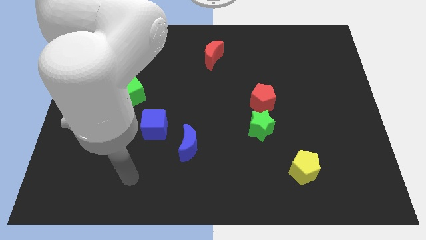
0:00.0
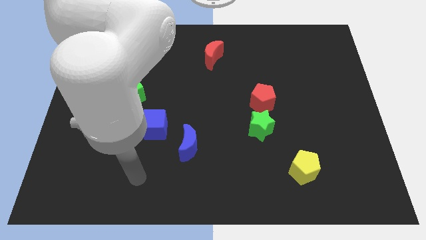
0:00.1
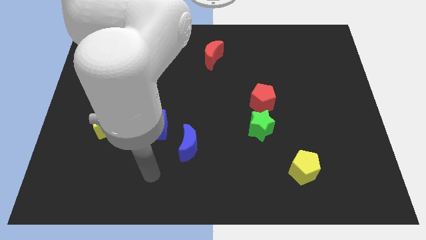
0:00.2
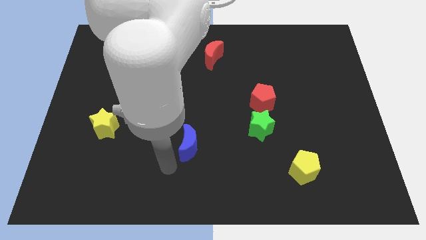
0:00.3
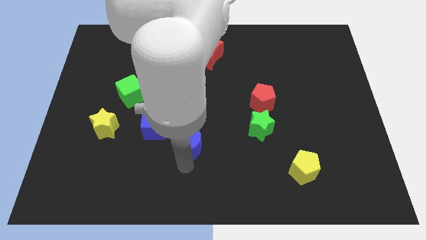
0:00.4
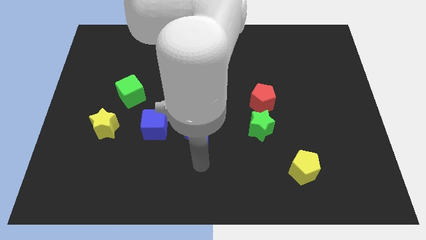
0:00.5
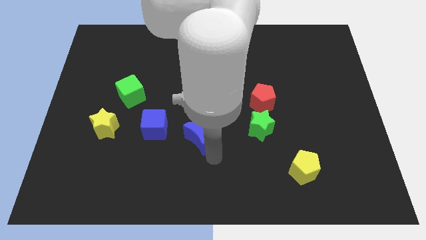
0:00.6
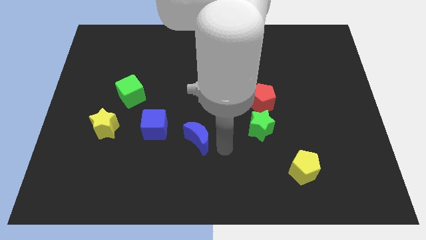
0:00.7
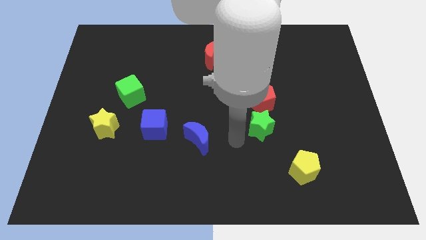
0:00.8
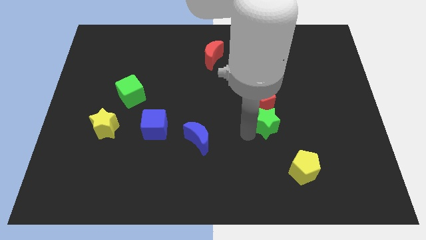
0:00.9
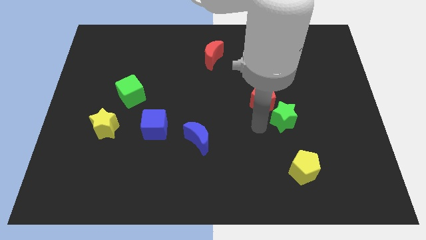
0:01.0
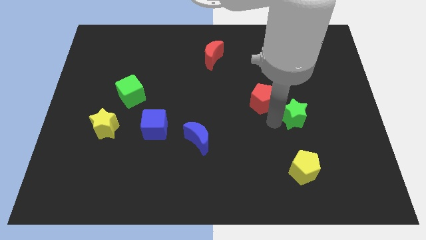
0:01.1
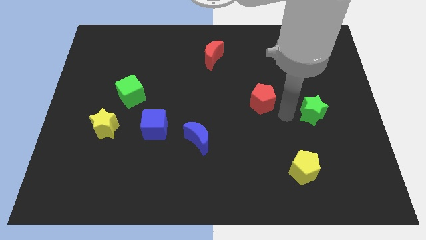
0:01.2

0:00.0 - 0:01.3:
pull the red pentagon apart from the green star

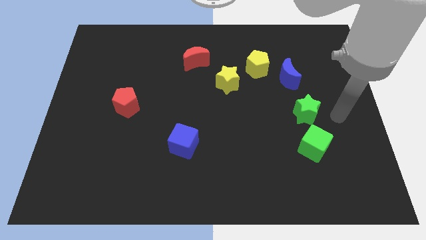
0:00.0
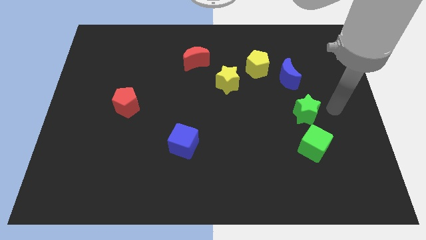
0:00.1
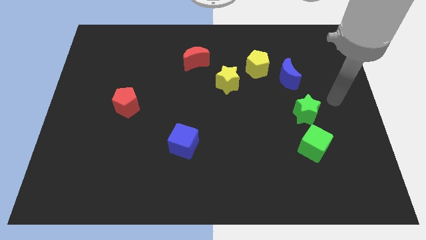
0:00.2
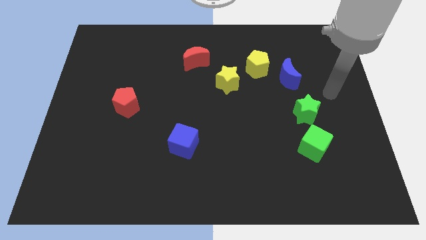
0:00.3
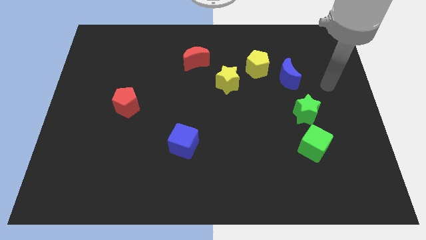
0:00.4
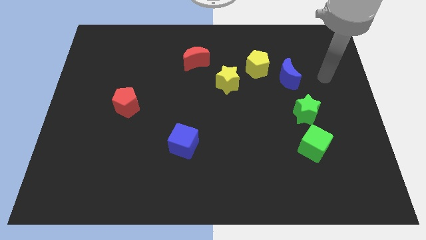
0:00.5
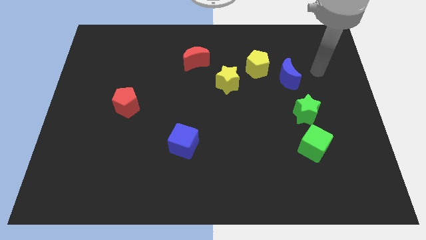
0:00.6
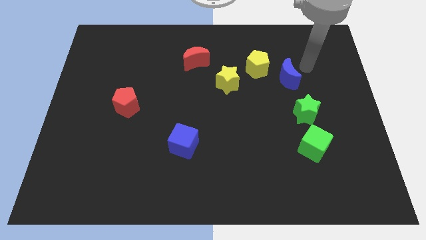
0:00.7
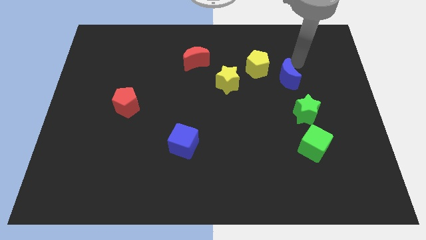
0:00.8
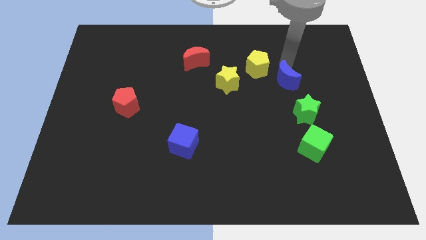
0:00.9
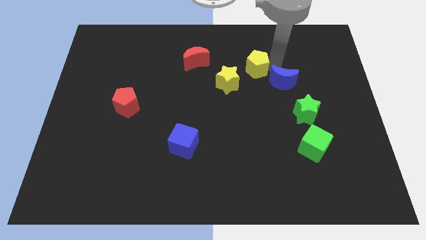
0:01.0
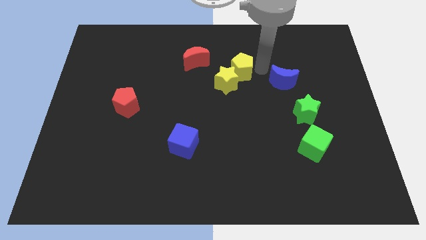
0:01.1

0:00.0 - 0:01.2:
move the blue moon away from the yellow pentagon

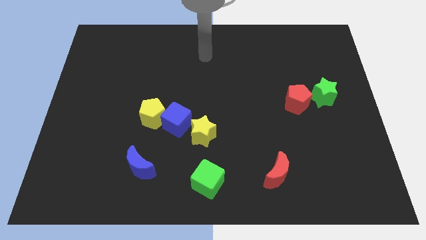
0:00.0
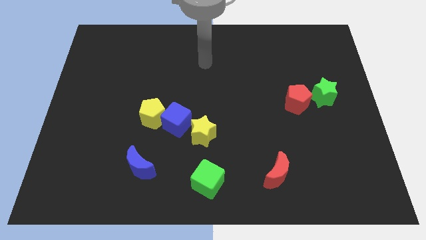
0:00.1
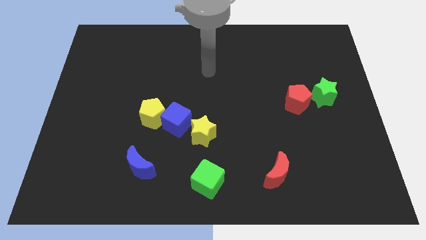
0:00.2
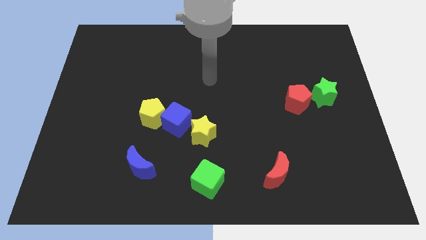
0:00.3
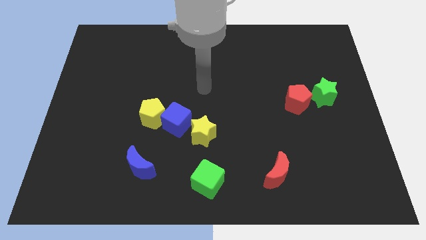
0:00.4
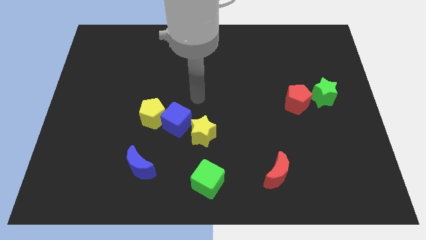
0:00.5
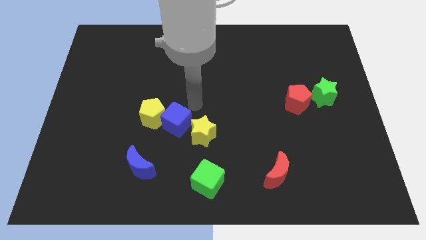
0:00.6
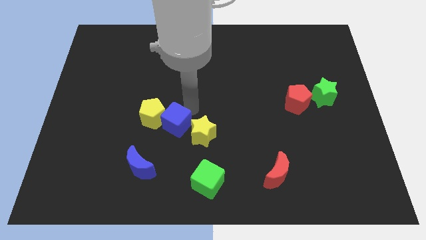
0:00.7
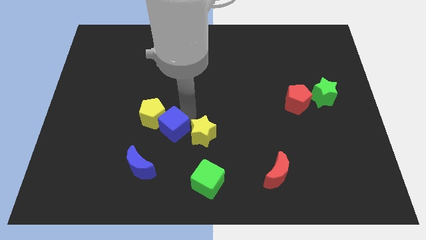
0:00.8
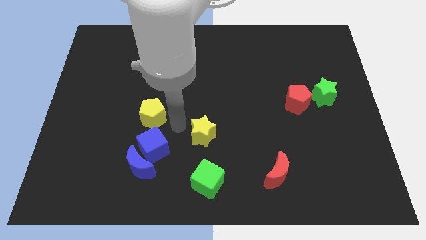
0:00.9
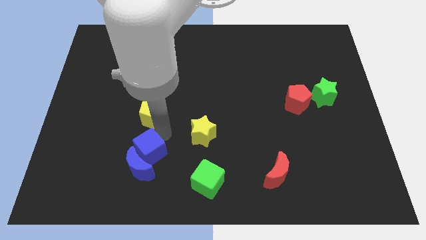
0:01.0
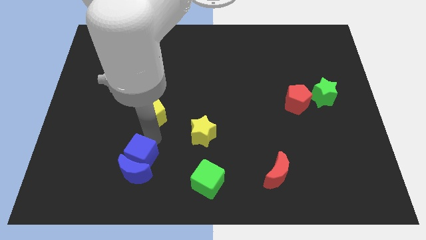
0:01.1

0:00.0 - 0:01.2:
pull the yellow pentagon apart from the blue cube

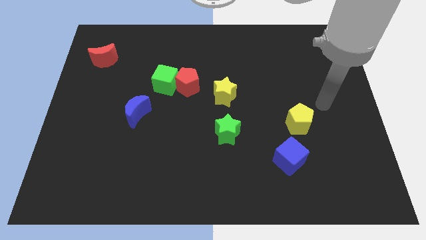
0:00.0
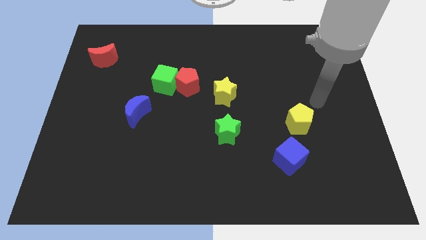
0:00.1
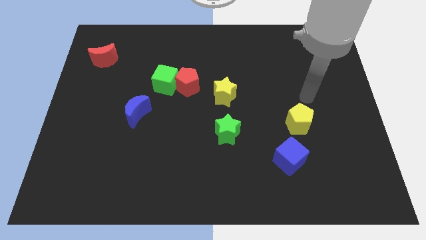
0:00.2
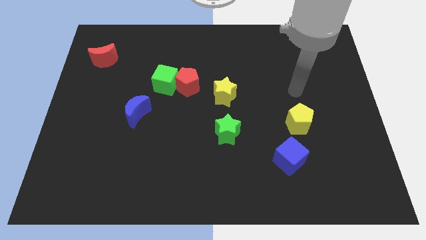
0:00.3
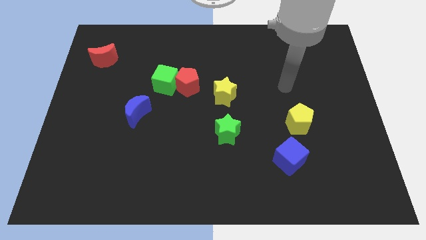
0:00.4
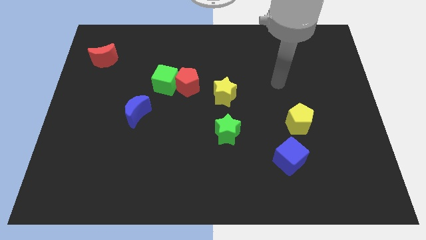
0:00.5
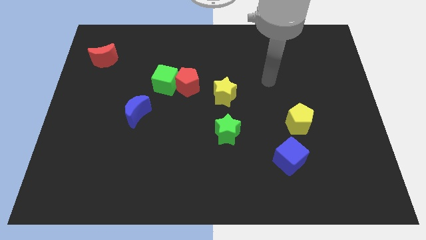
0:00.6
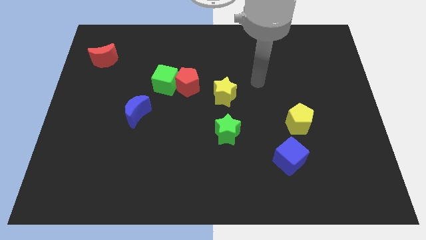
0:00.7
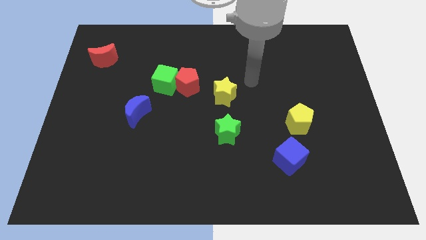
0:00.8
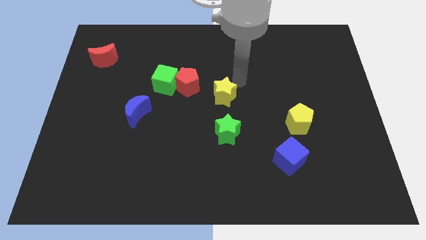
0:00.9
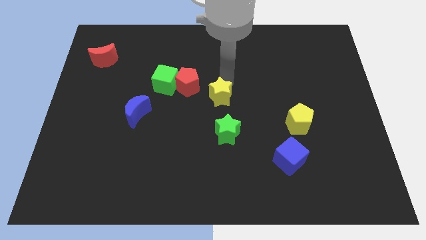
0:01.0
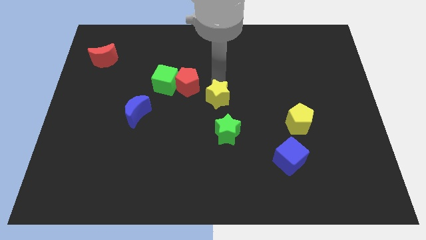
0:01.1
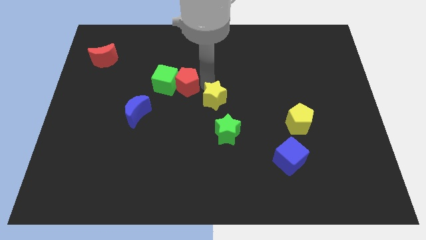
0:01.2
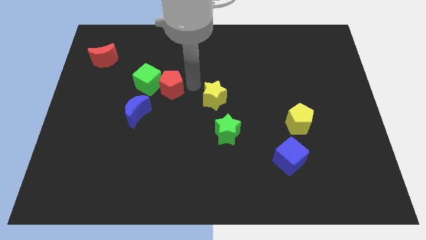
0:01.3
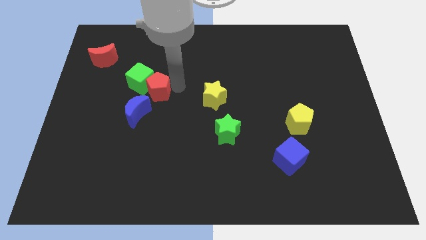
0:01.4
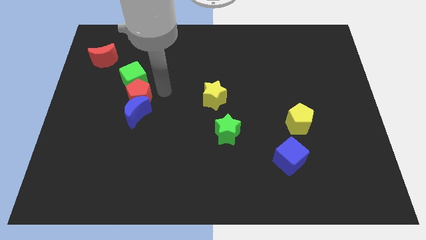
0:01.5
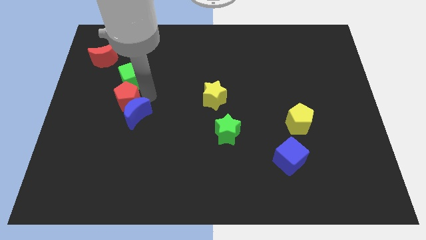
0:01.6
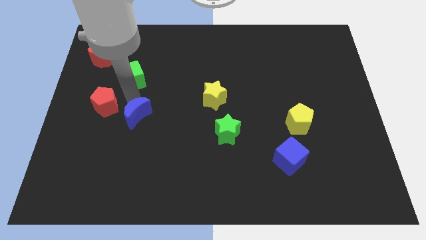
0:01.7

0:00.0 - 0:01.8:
separate the green cube from the red pentagon

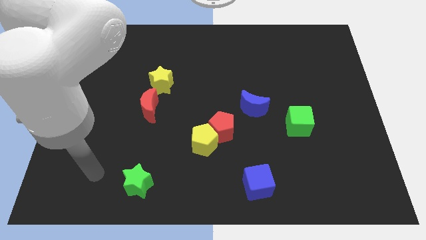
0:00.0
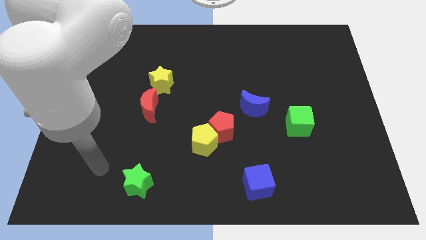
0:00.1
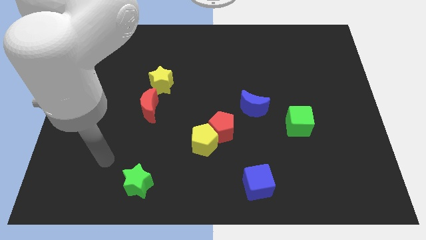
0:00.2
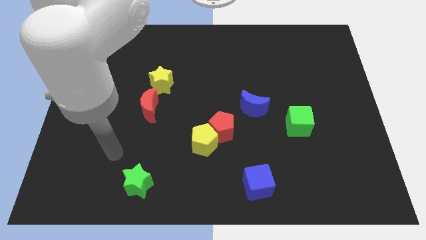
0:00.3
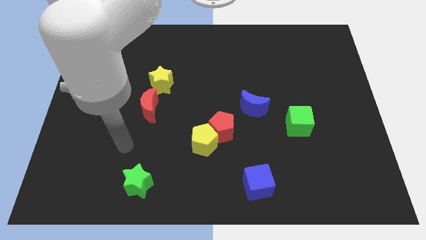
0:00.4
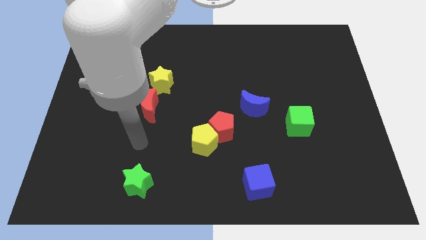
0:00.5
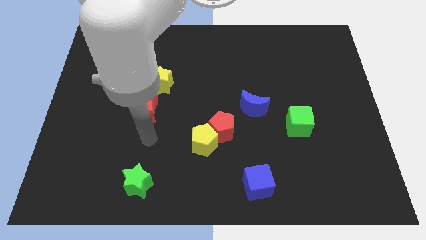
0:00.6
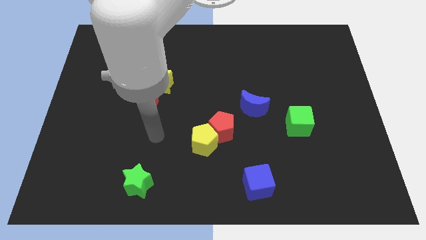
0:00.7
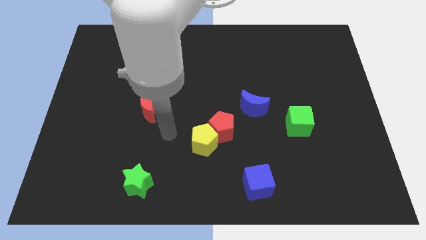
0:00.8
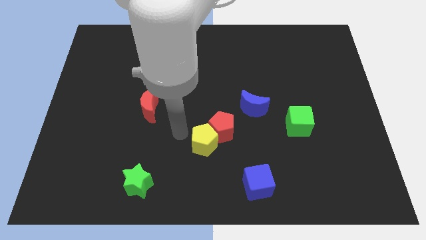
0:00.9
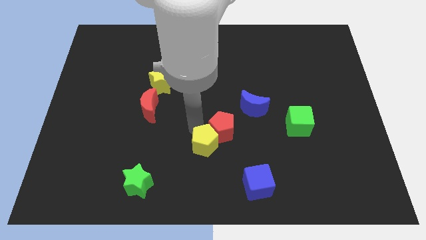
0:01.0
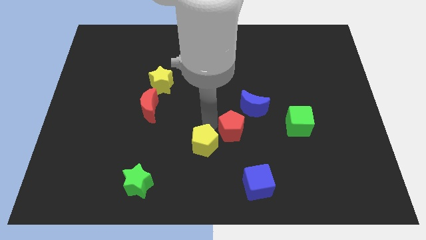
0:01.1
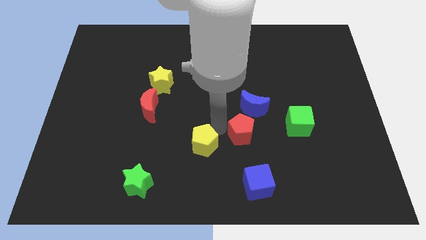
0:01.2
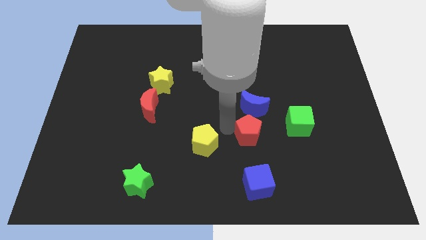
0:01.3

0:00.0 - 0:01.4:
pull the yellow pentagon apart from the red pentagon

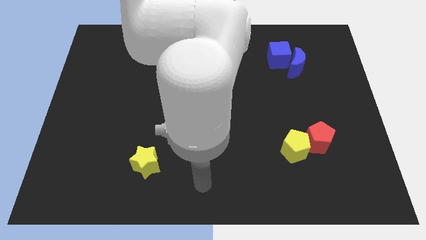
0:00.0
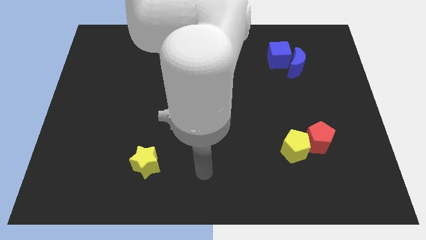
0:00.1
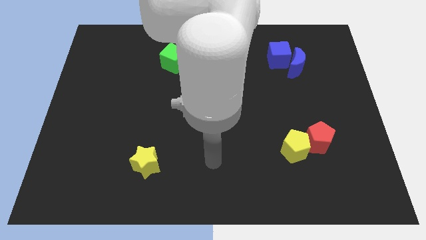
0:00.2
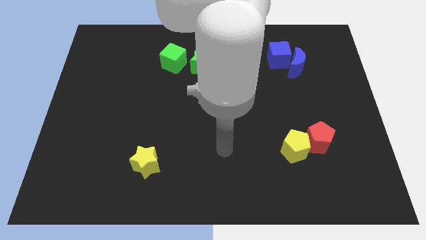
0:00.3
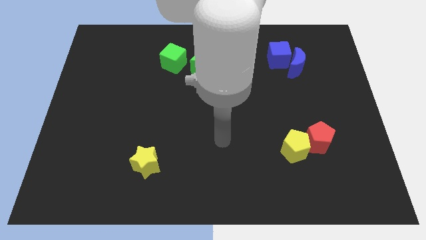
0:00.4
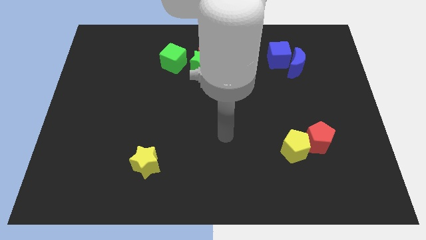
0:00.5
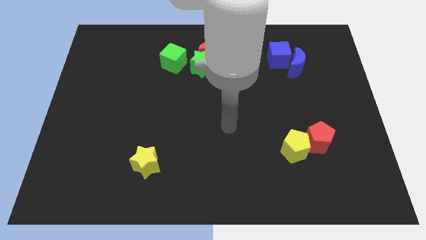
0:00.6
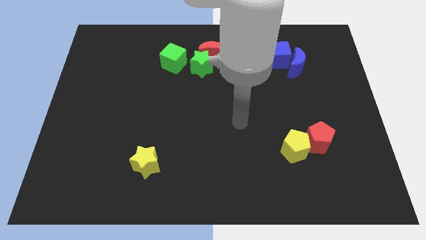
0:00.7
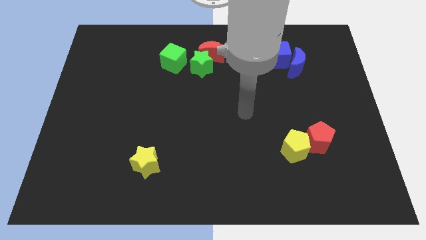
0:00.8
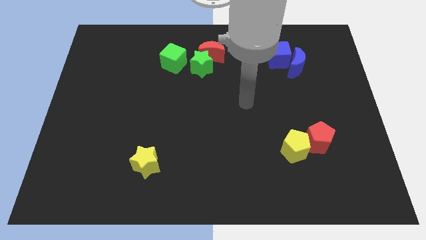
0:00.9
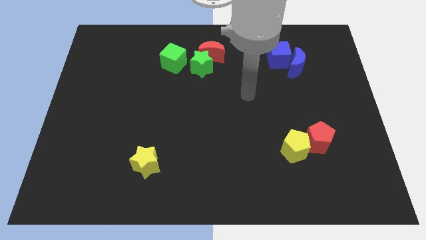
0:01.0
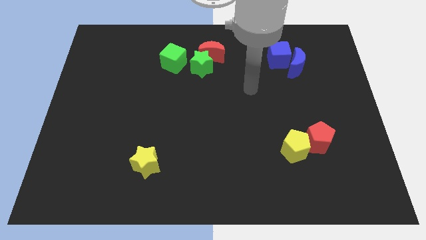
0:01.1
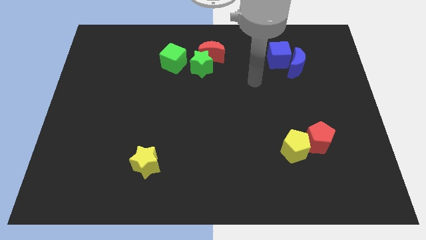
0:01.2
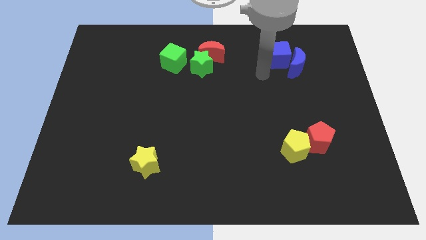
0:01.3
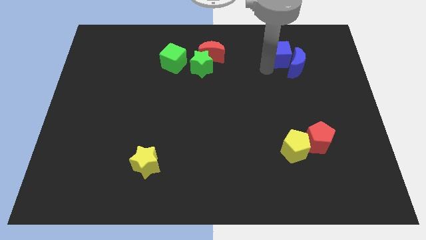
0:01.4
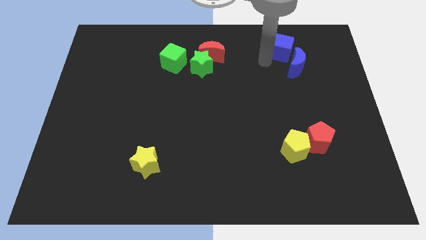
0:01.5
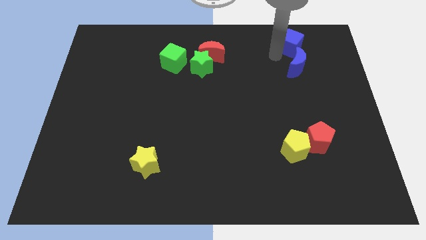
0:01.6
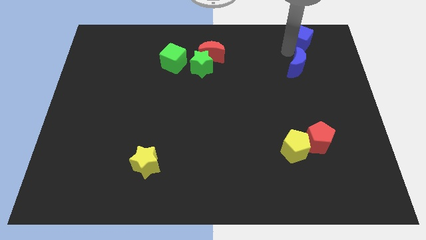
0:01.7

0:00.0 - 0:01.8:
pull the blue moon apart from the blue cube

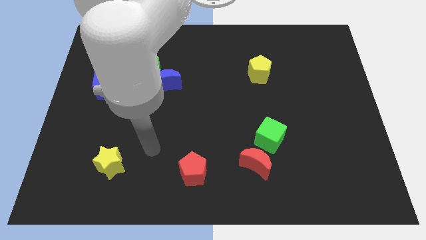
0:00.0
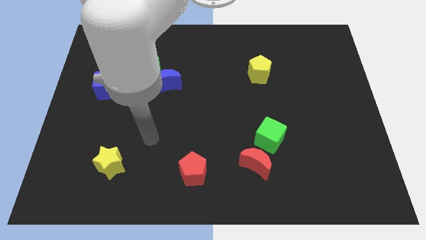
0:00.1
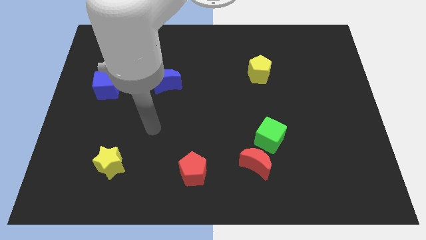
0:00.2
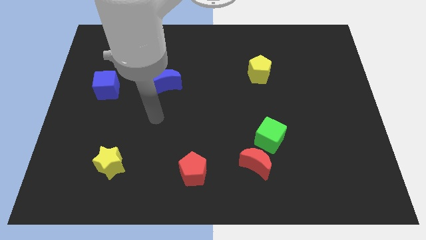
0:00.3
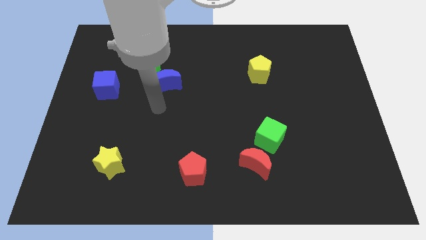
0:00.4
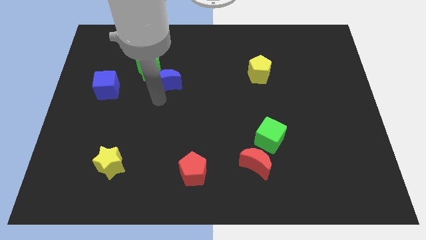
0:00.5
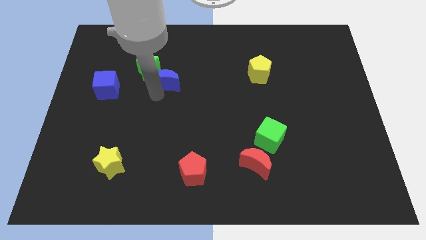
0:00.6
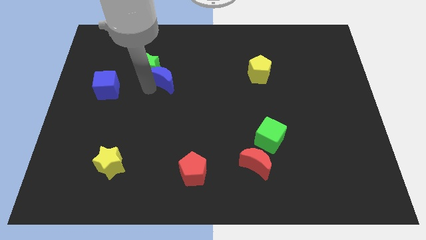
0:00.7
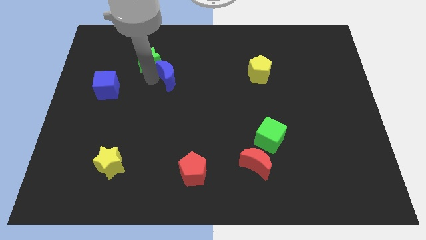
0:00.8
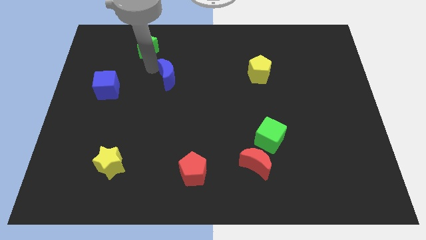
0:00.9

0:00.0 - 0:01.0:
move the blue moon away from the green star
